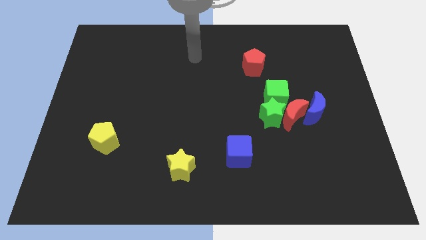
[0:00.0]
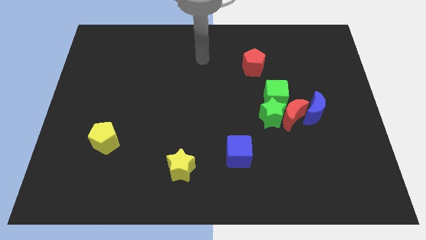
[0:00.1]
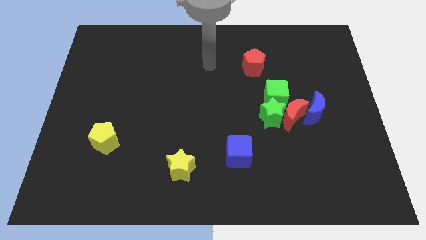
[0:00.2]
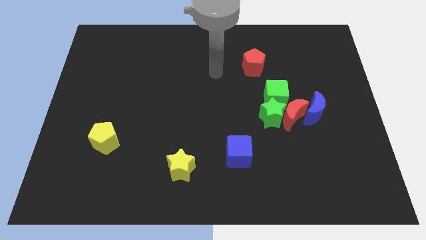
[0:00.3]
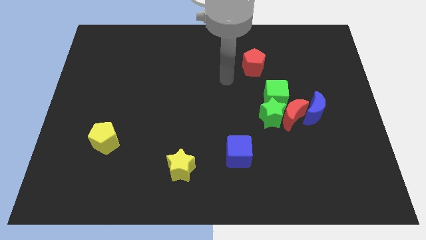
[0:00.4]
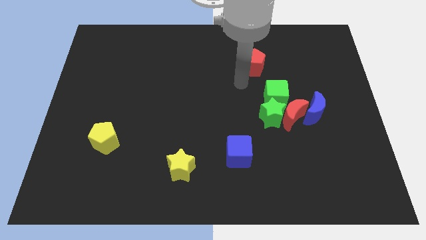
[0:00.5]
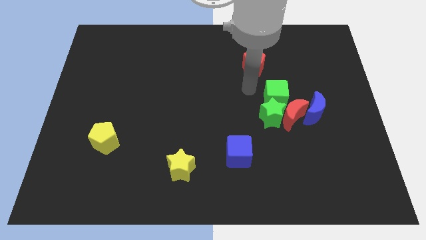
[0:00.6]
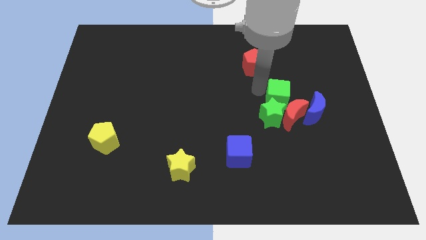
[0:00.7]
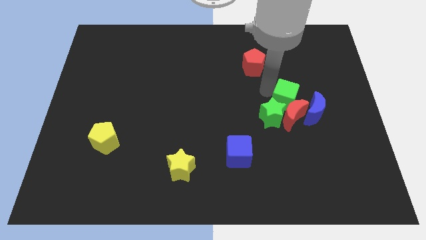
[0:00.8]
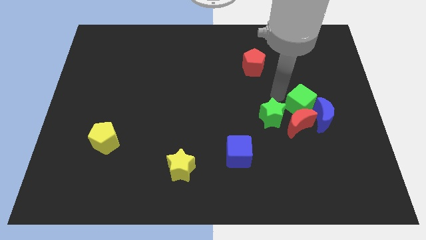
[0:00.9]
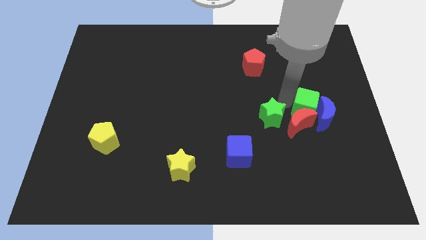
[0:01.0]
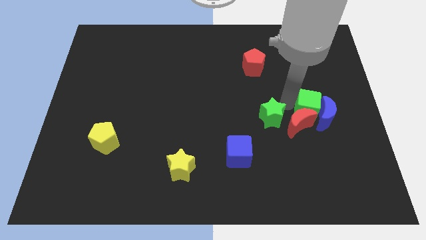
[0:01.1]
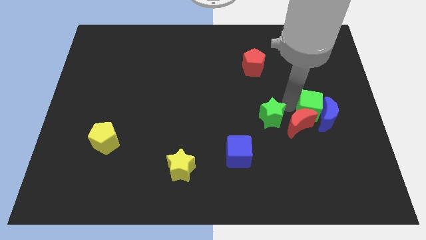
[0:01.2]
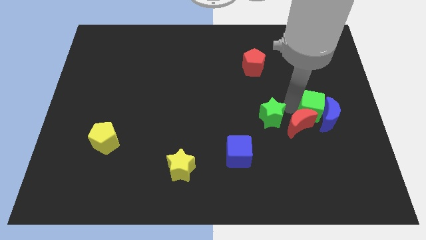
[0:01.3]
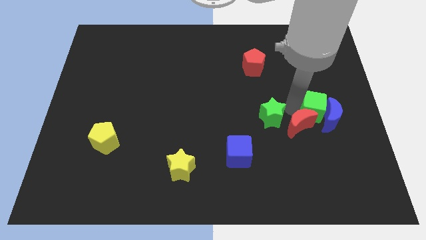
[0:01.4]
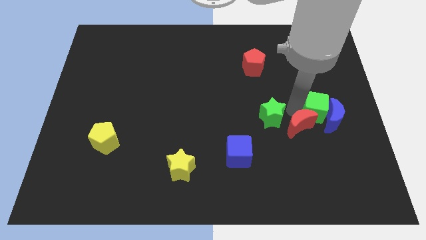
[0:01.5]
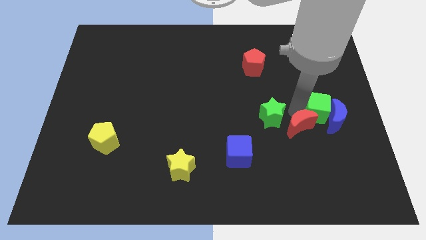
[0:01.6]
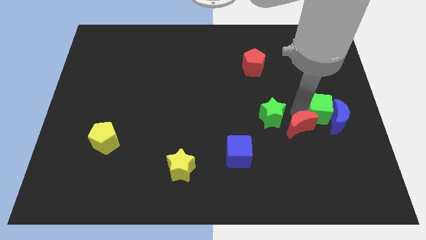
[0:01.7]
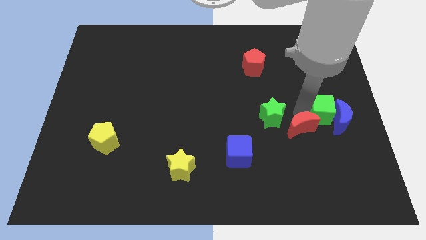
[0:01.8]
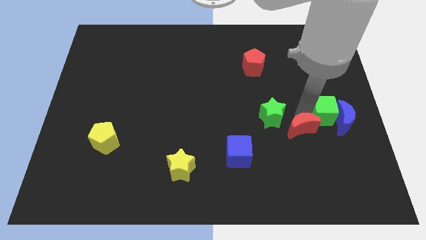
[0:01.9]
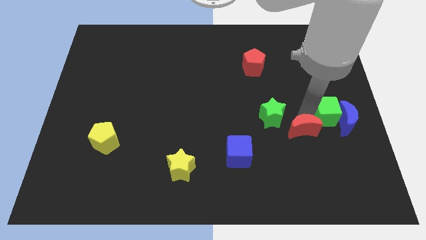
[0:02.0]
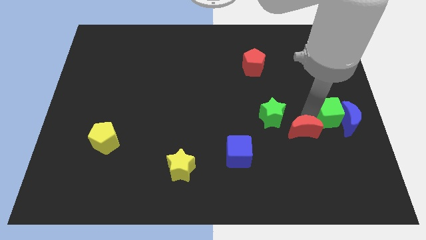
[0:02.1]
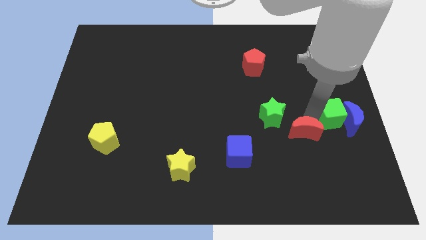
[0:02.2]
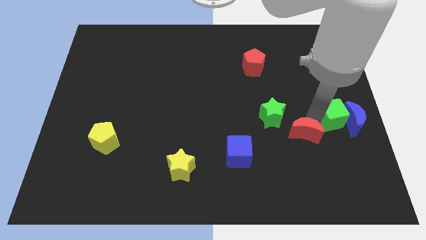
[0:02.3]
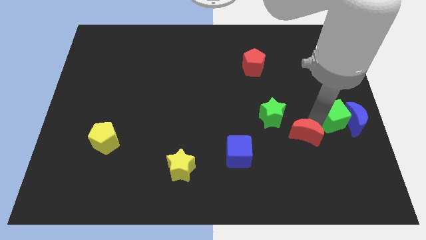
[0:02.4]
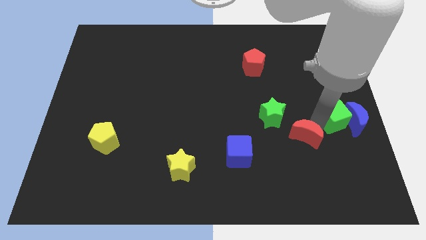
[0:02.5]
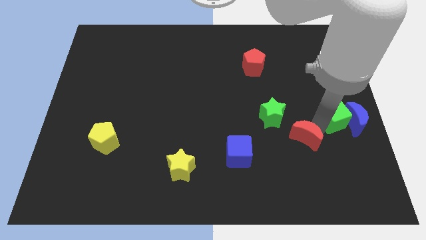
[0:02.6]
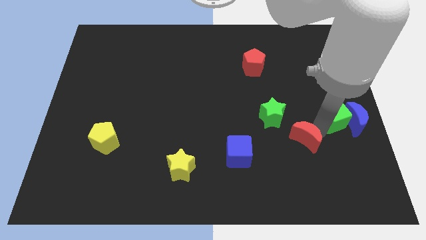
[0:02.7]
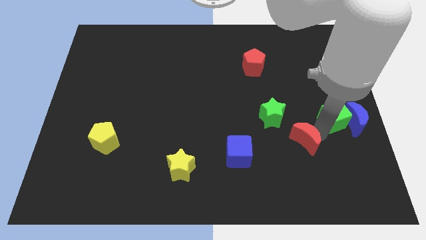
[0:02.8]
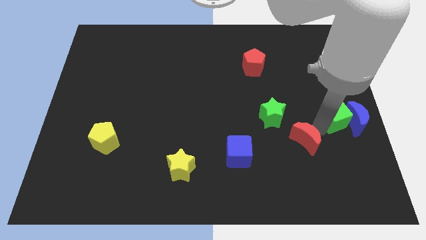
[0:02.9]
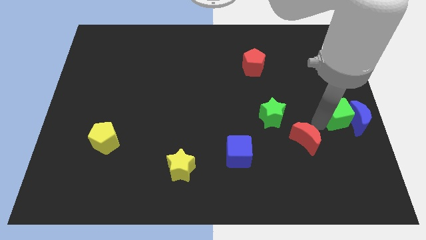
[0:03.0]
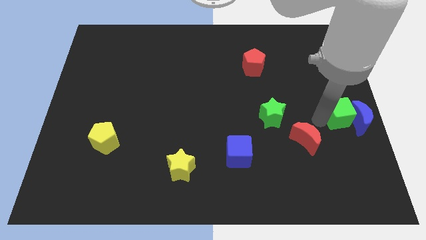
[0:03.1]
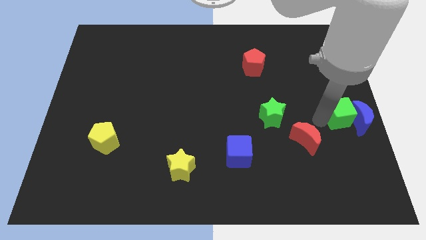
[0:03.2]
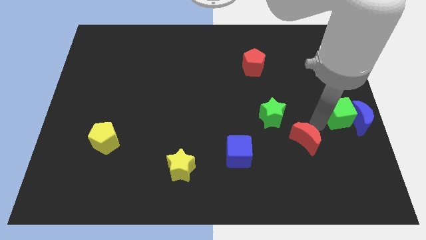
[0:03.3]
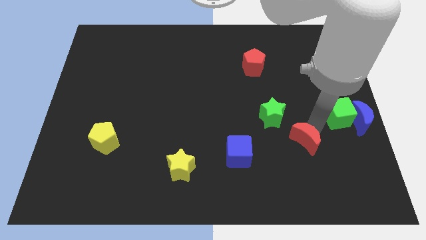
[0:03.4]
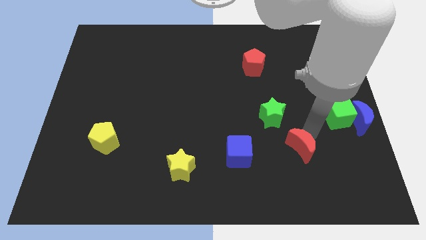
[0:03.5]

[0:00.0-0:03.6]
separate the red moon from the green star, blue moon, and green cube

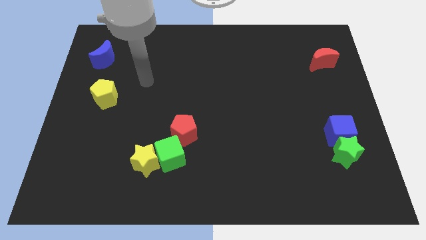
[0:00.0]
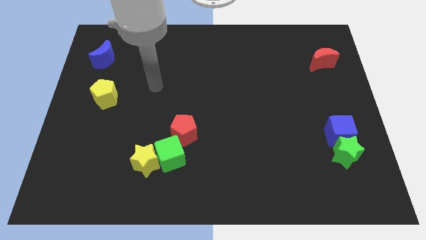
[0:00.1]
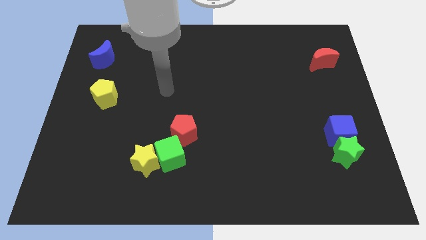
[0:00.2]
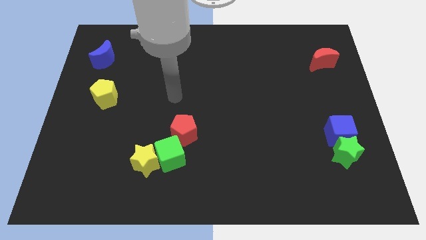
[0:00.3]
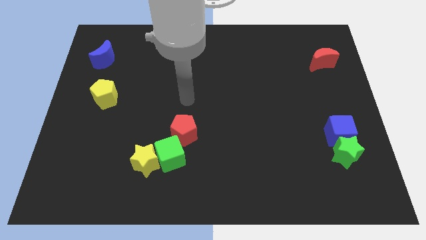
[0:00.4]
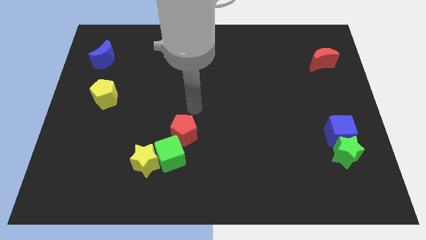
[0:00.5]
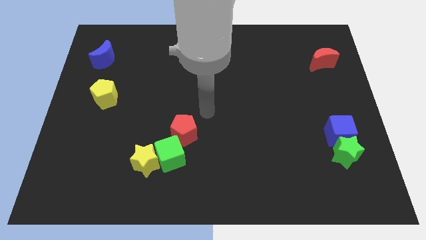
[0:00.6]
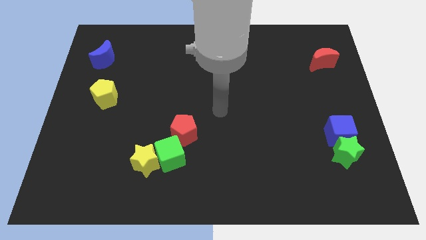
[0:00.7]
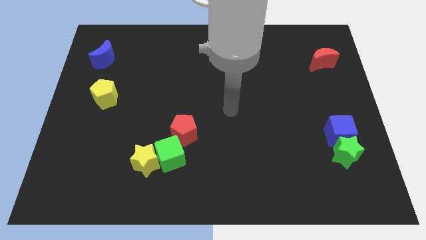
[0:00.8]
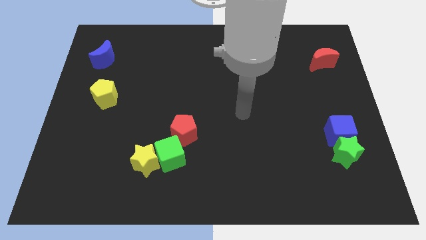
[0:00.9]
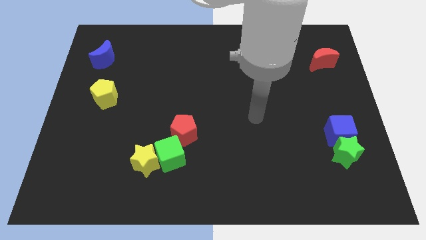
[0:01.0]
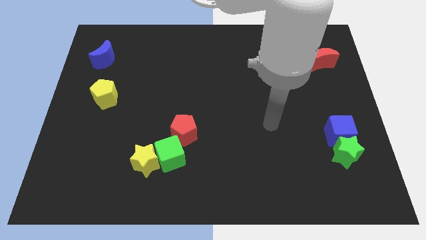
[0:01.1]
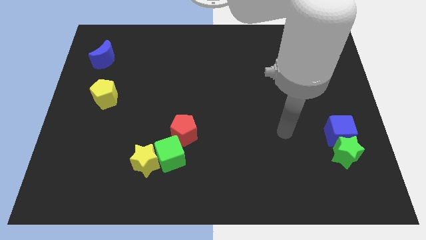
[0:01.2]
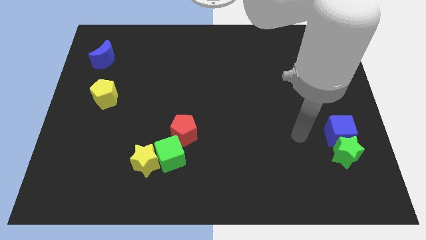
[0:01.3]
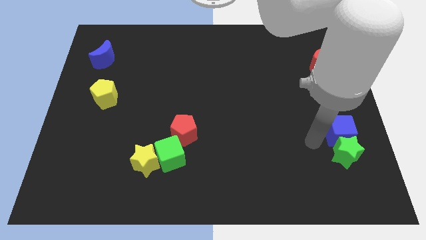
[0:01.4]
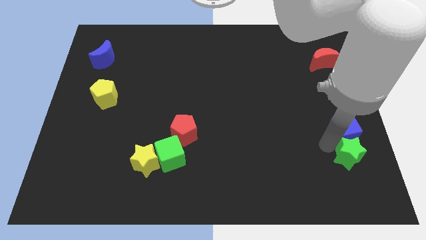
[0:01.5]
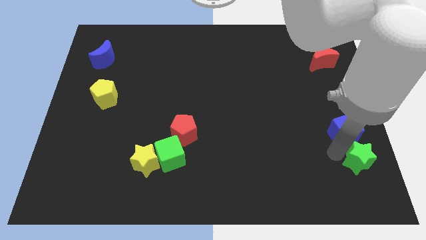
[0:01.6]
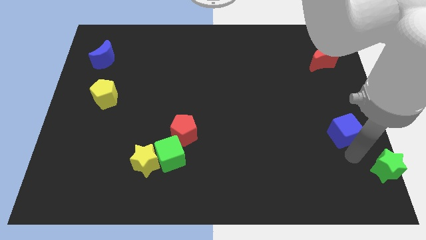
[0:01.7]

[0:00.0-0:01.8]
move the blue cube away from the green star

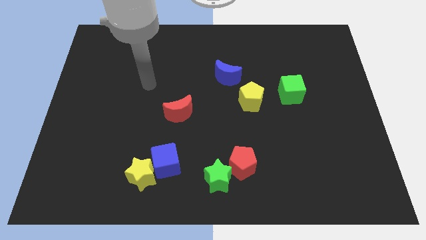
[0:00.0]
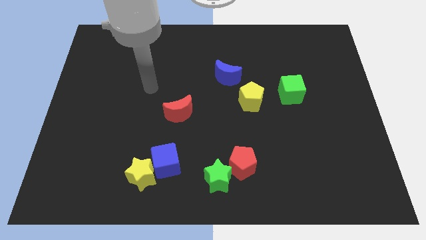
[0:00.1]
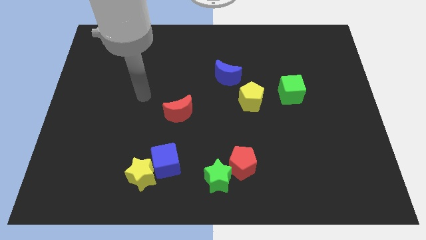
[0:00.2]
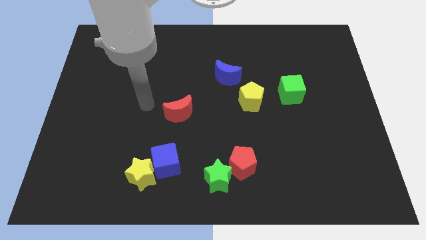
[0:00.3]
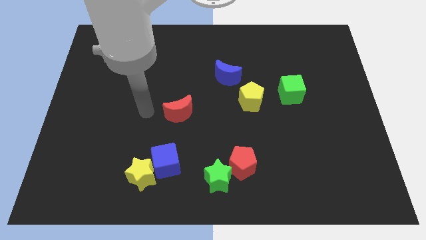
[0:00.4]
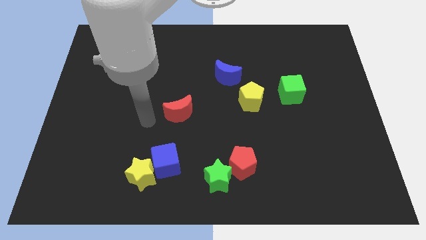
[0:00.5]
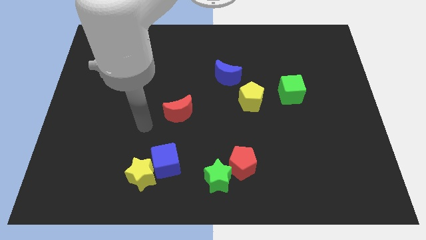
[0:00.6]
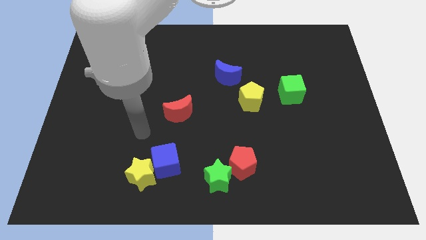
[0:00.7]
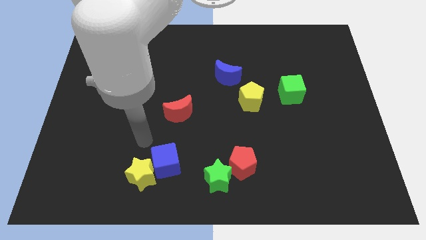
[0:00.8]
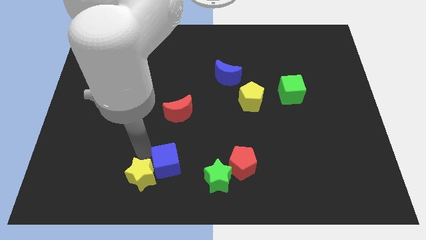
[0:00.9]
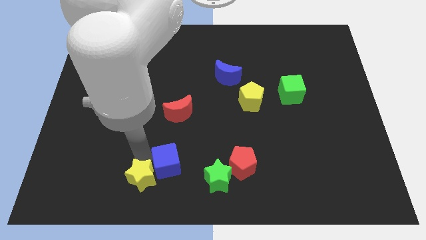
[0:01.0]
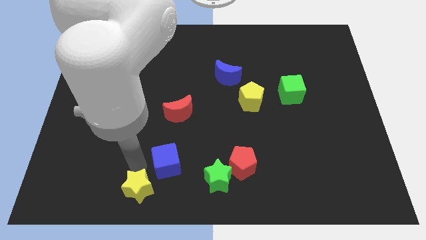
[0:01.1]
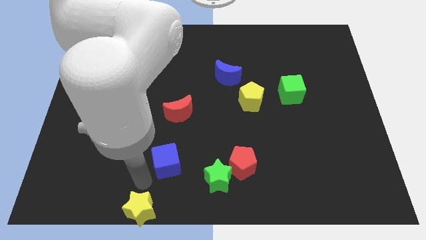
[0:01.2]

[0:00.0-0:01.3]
pull the blue cube apart from the yellow star

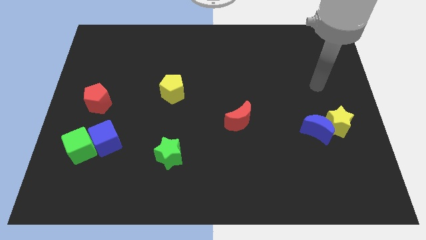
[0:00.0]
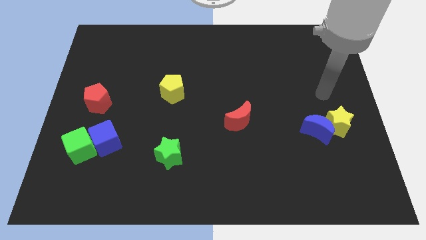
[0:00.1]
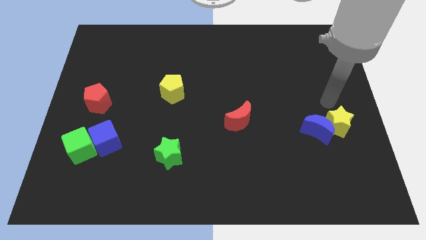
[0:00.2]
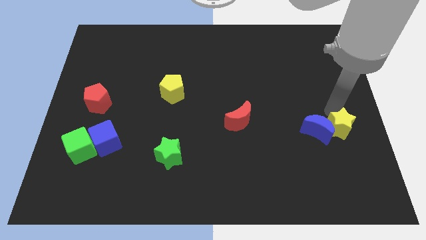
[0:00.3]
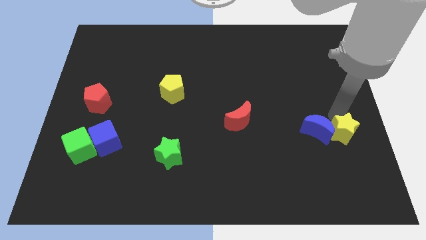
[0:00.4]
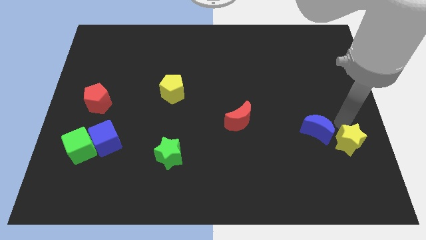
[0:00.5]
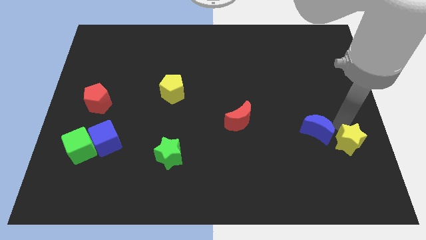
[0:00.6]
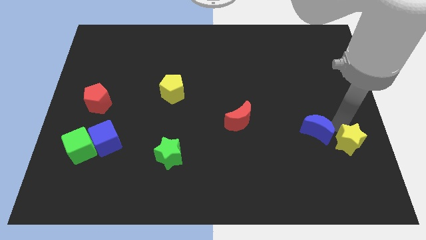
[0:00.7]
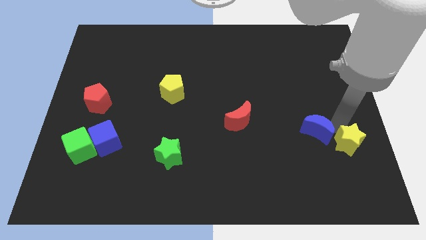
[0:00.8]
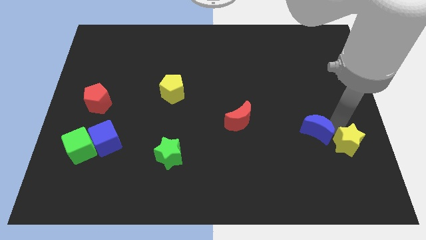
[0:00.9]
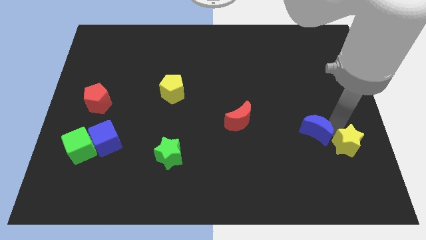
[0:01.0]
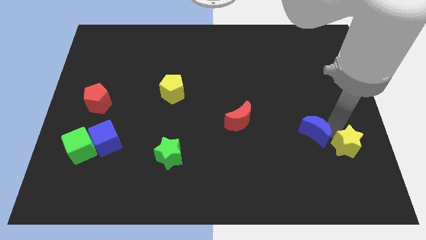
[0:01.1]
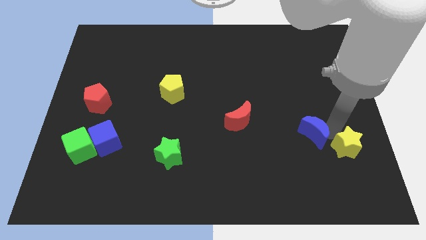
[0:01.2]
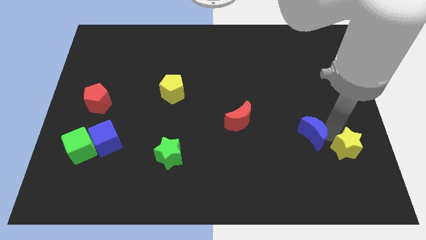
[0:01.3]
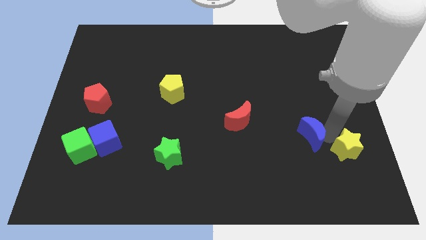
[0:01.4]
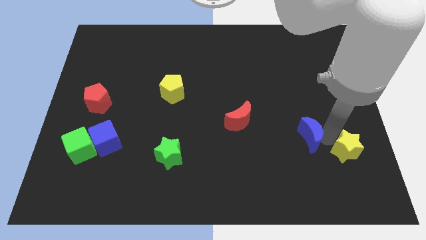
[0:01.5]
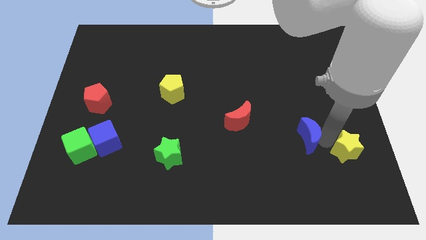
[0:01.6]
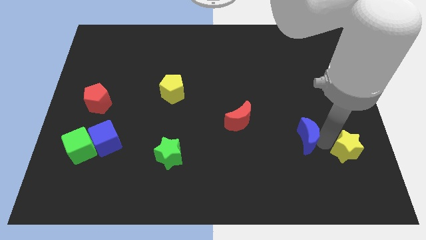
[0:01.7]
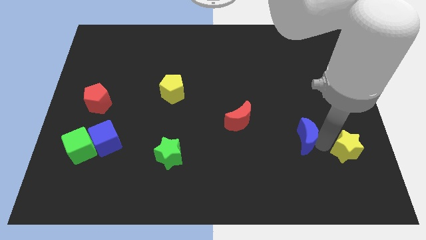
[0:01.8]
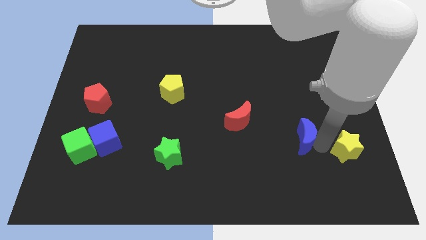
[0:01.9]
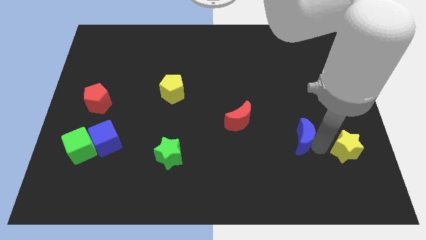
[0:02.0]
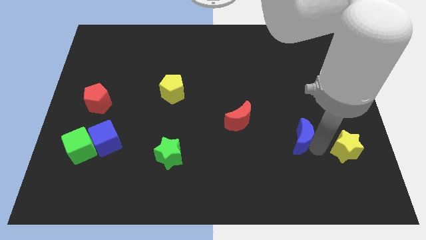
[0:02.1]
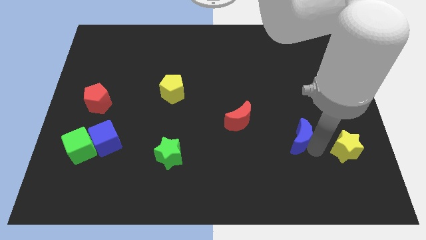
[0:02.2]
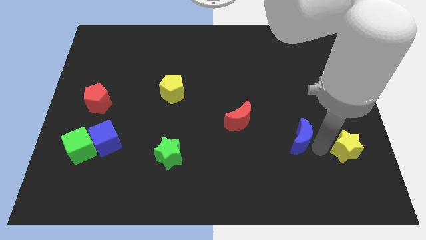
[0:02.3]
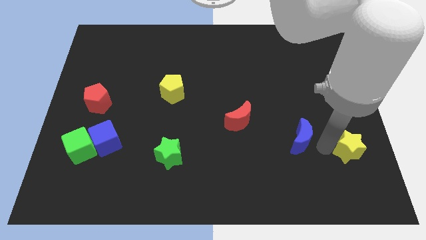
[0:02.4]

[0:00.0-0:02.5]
pull the blue moon apart from the yellow star

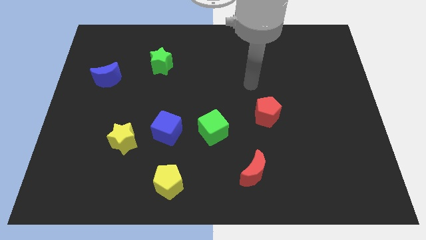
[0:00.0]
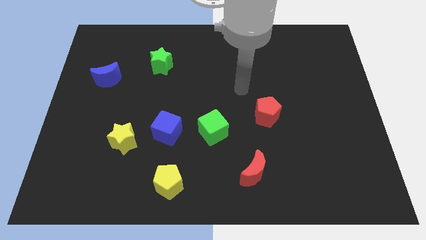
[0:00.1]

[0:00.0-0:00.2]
pull the yellow star apart from the blue cube
